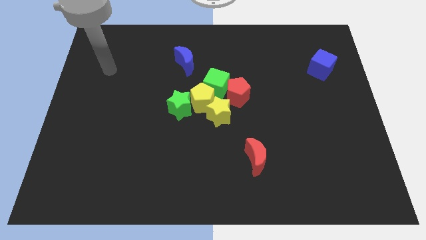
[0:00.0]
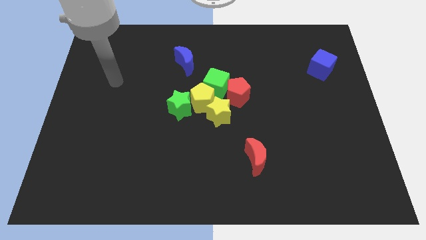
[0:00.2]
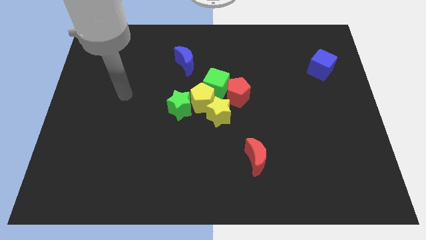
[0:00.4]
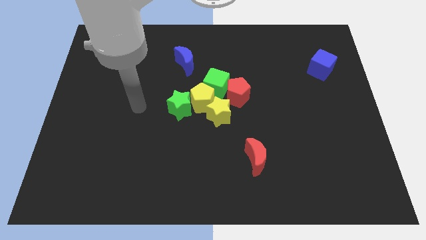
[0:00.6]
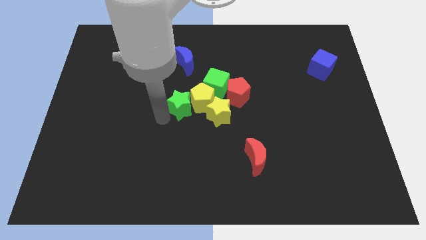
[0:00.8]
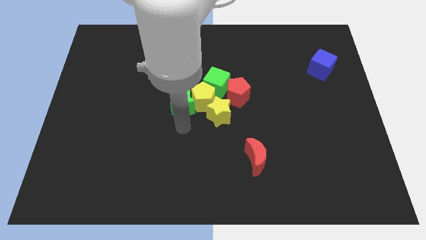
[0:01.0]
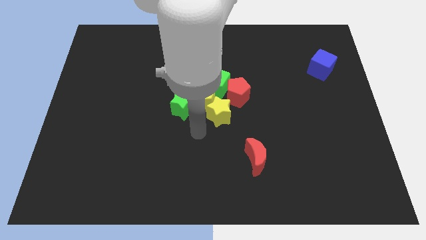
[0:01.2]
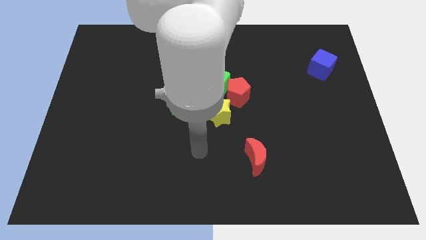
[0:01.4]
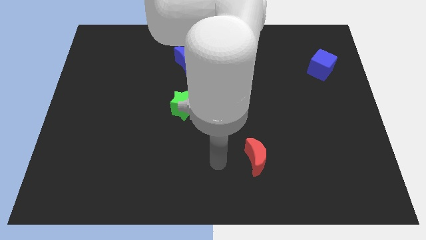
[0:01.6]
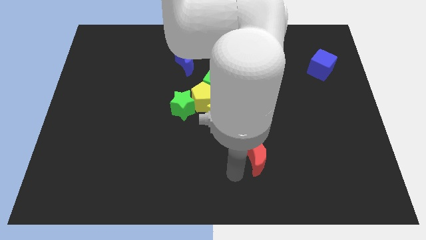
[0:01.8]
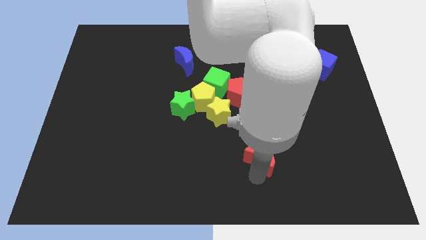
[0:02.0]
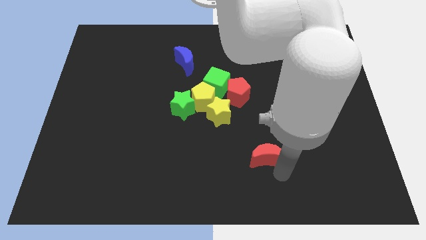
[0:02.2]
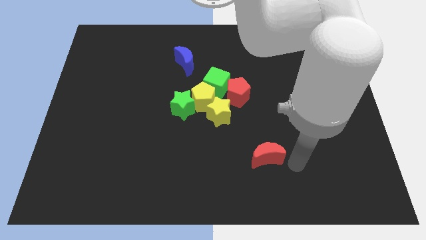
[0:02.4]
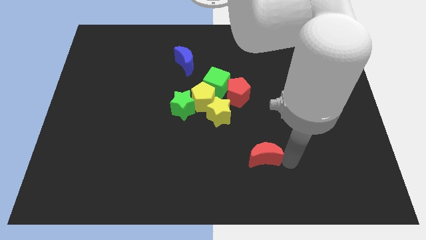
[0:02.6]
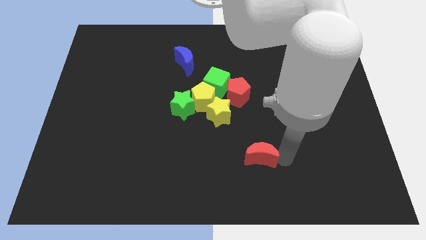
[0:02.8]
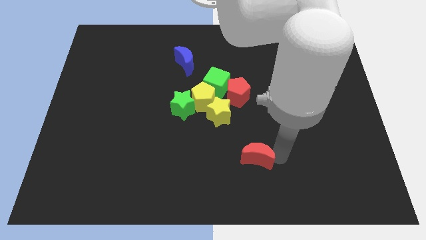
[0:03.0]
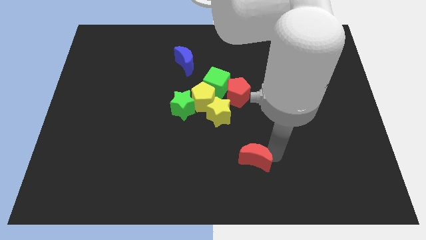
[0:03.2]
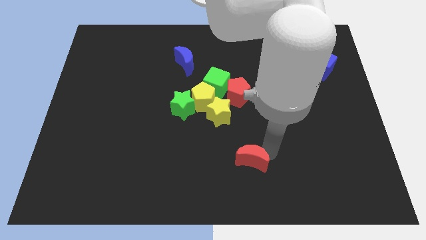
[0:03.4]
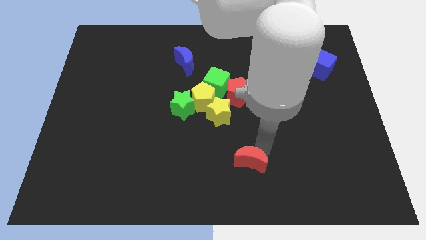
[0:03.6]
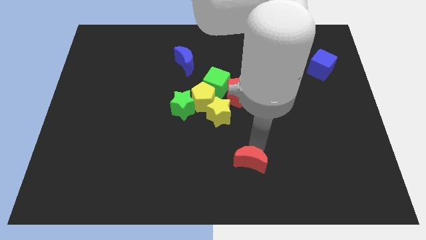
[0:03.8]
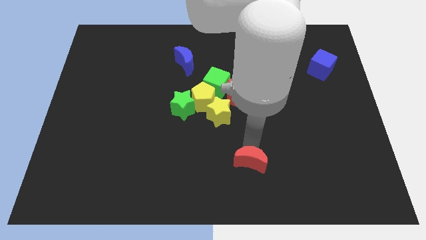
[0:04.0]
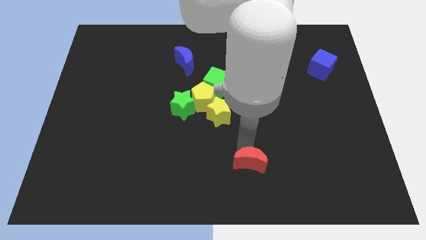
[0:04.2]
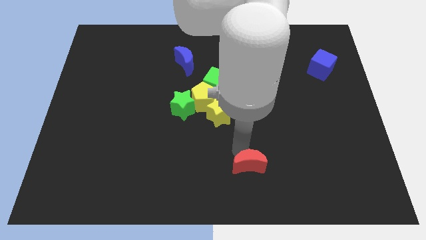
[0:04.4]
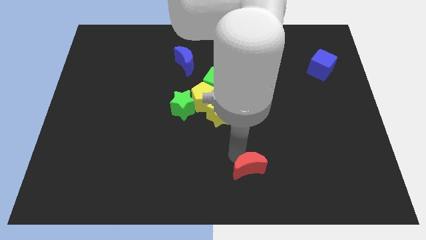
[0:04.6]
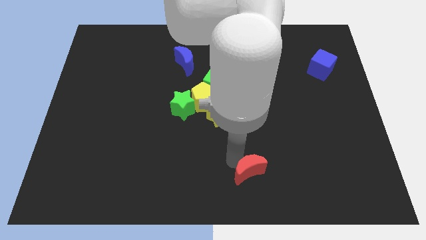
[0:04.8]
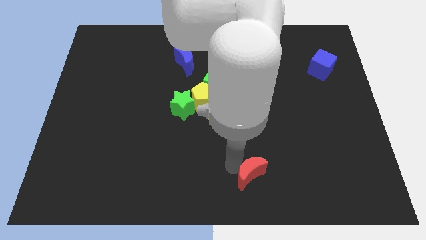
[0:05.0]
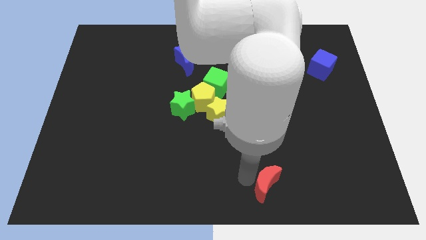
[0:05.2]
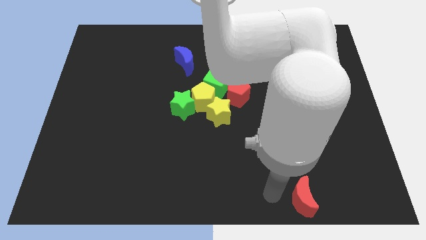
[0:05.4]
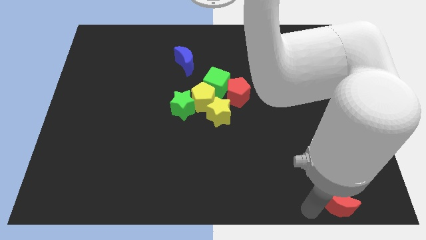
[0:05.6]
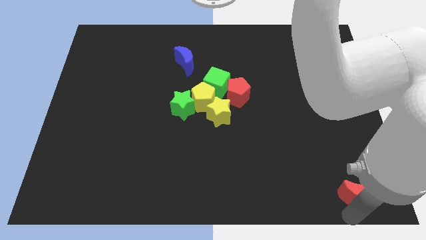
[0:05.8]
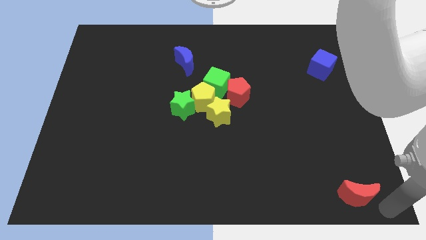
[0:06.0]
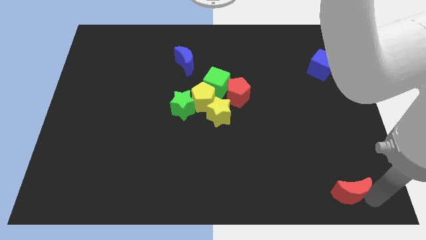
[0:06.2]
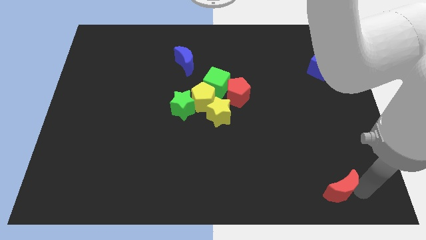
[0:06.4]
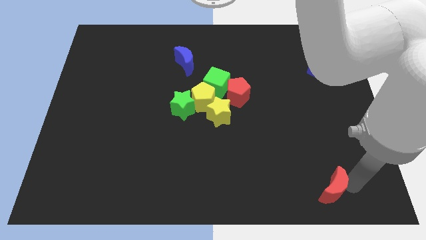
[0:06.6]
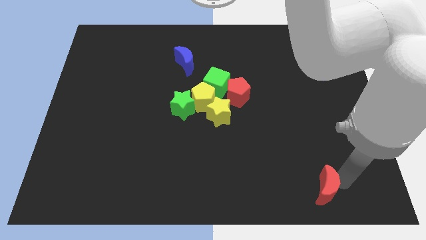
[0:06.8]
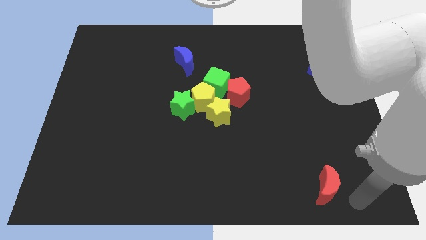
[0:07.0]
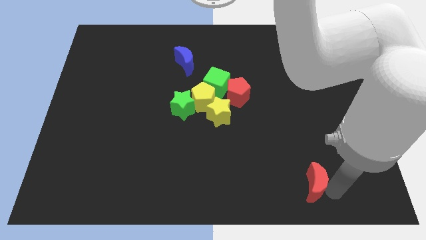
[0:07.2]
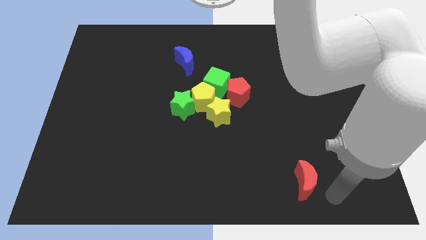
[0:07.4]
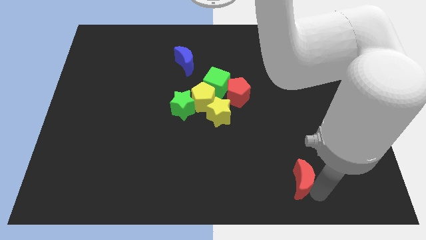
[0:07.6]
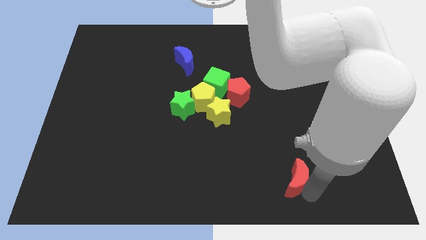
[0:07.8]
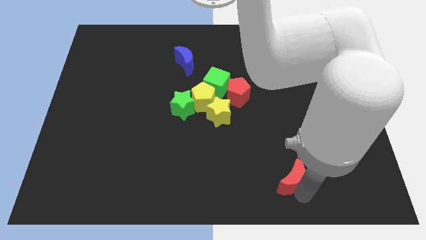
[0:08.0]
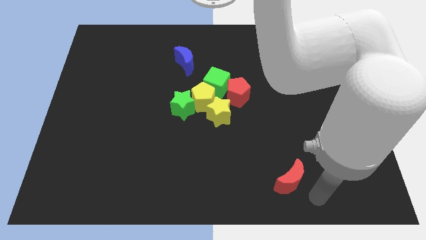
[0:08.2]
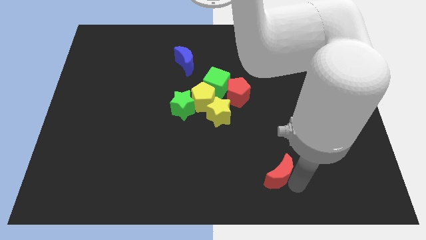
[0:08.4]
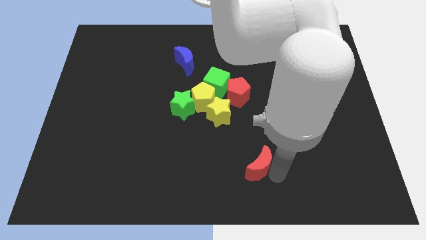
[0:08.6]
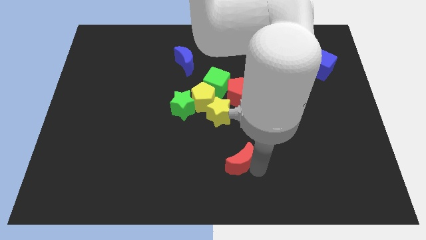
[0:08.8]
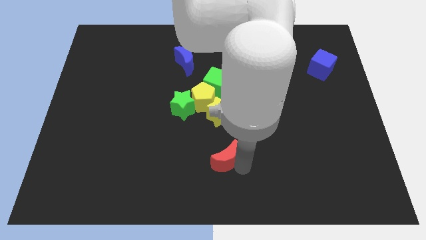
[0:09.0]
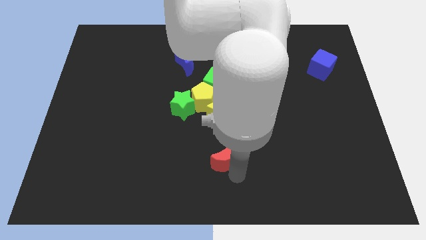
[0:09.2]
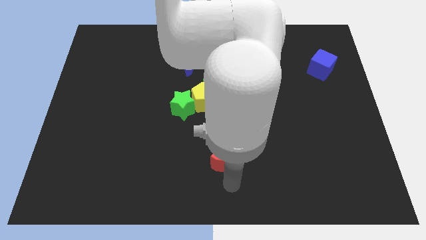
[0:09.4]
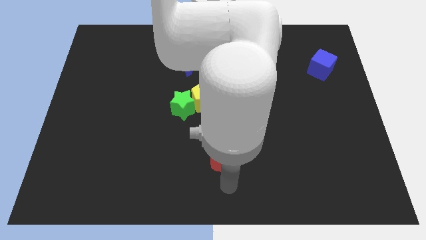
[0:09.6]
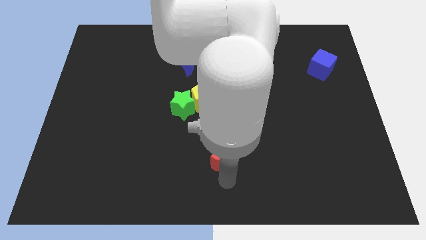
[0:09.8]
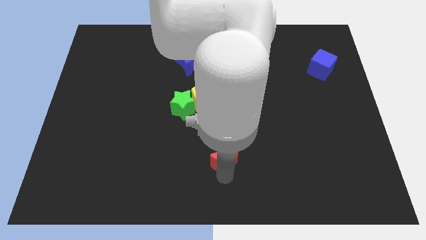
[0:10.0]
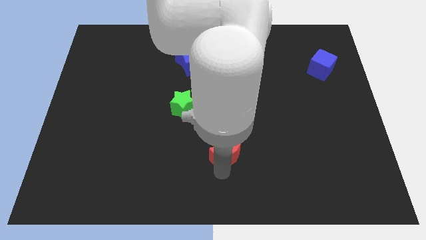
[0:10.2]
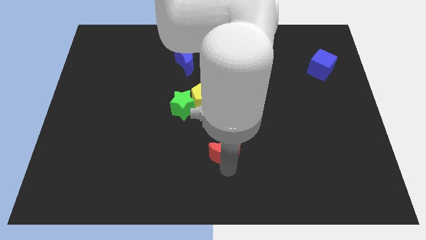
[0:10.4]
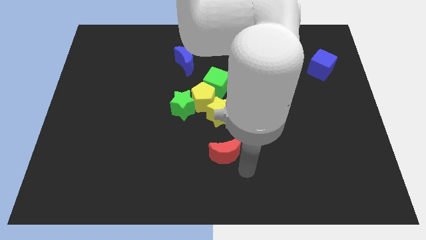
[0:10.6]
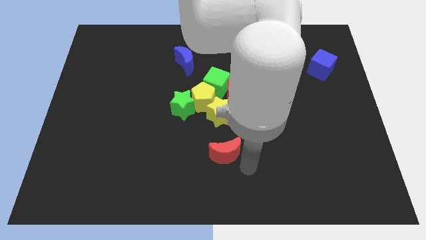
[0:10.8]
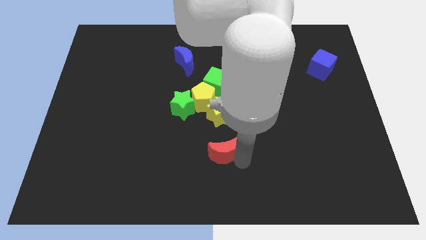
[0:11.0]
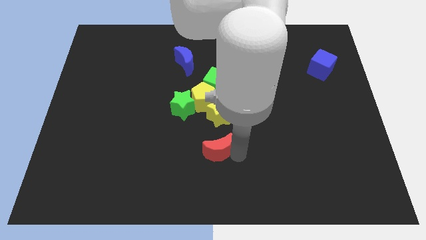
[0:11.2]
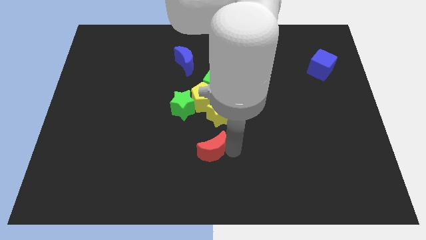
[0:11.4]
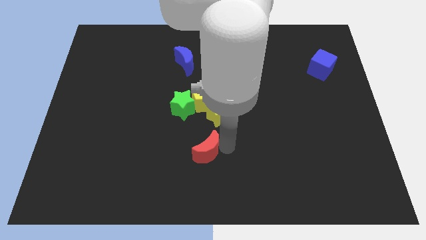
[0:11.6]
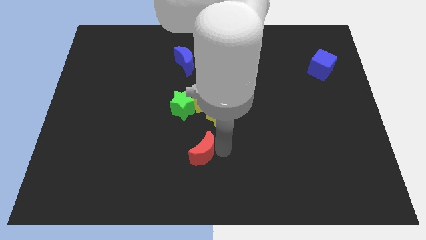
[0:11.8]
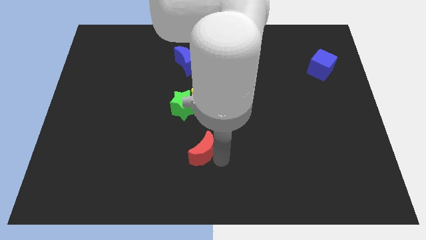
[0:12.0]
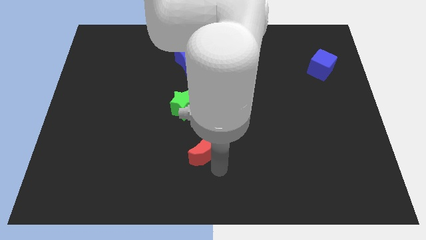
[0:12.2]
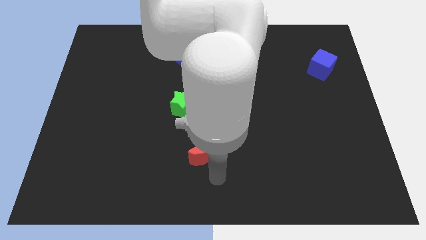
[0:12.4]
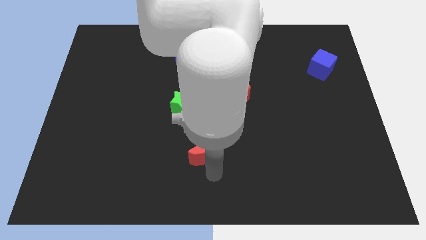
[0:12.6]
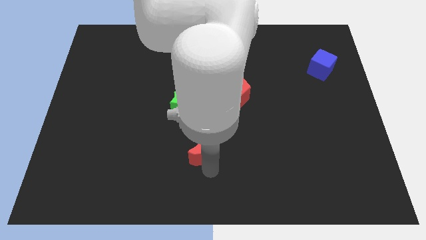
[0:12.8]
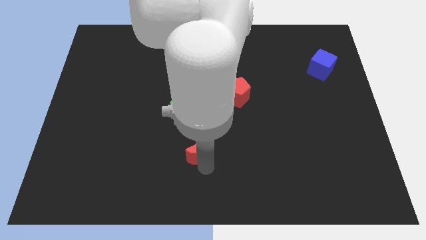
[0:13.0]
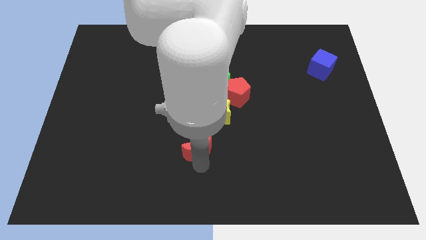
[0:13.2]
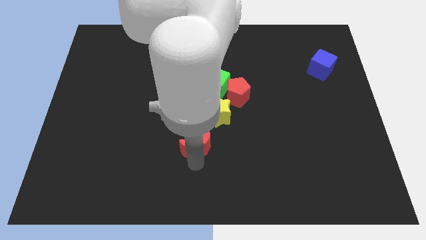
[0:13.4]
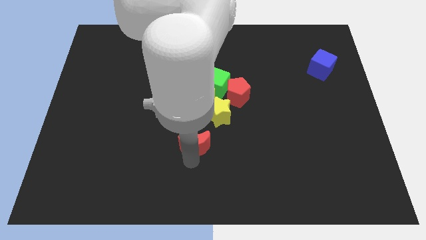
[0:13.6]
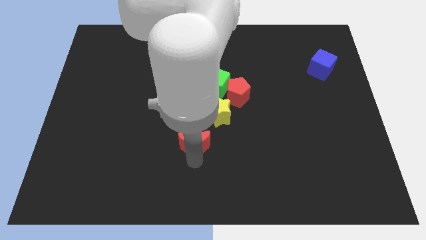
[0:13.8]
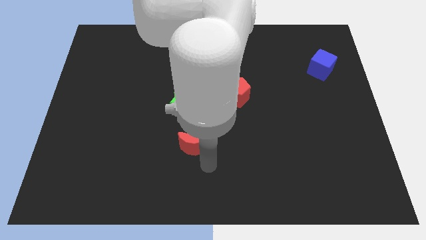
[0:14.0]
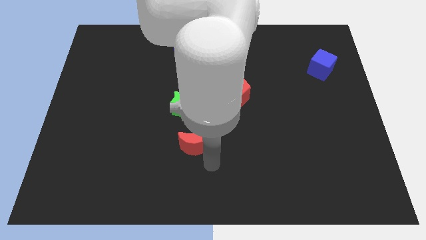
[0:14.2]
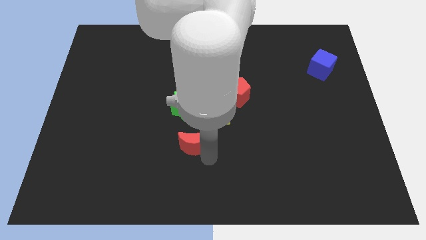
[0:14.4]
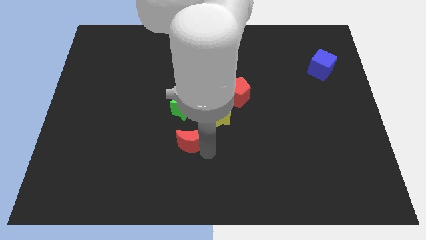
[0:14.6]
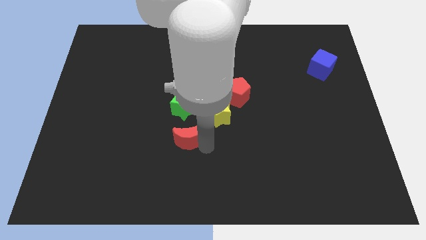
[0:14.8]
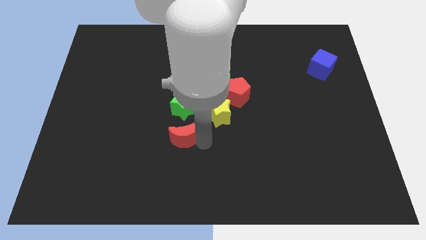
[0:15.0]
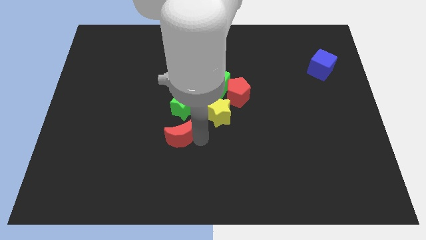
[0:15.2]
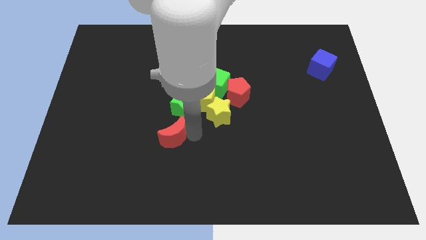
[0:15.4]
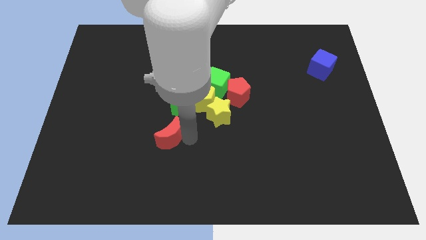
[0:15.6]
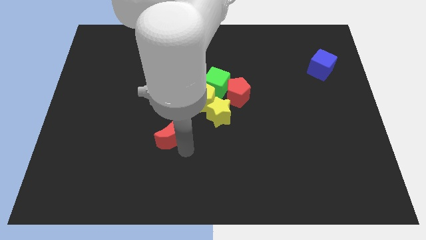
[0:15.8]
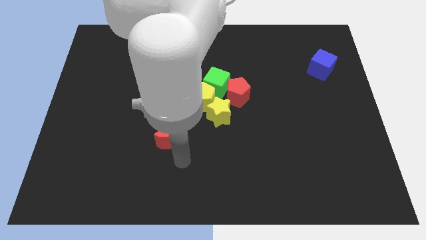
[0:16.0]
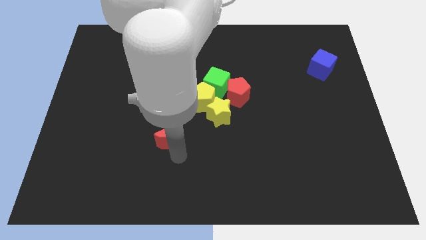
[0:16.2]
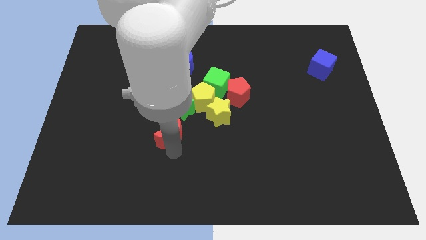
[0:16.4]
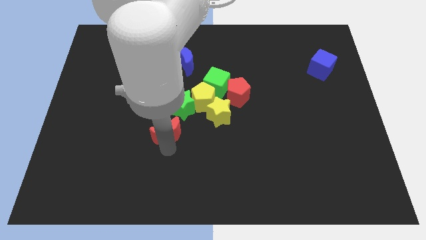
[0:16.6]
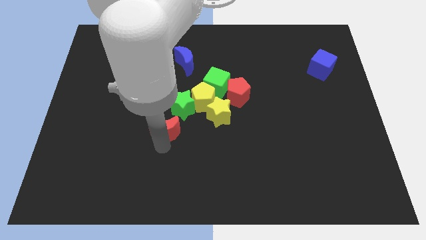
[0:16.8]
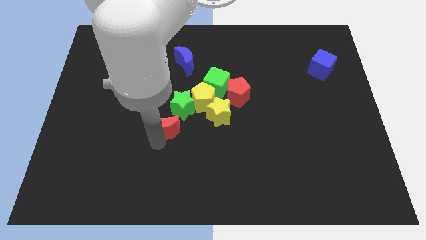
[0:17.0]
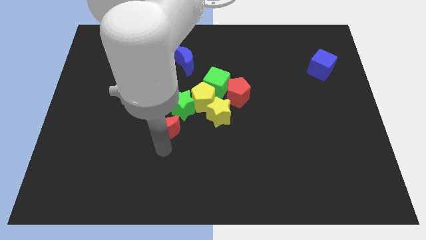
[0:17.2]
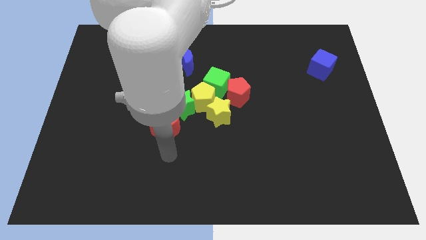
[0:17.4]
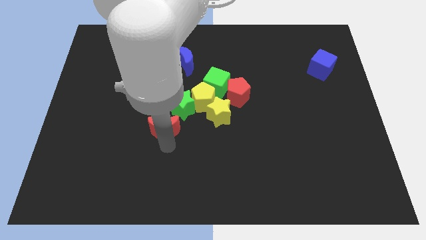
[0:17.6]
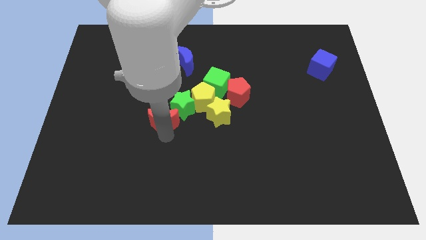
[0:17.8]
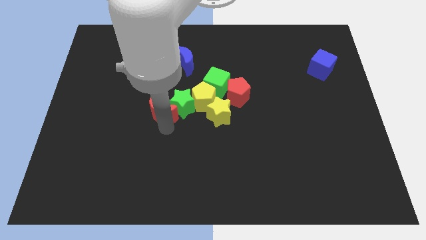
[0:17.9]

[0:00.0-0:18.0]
push the red moon diagonally upwards and to the left
